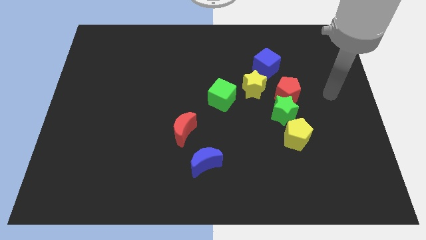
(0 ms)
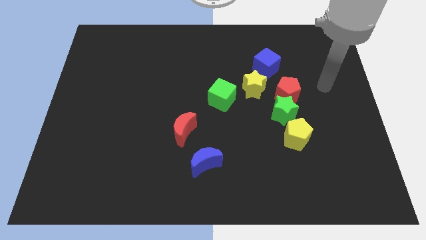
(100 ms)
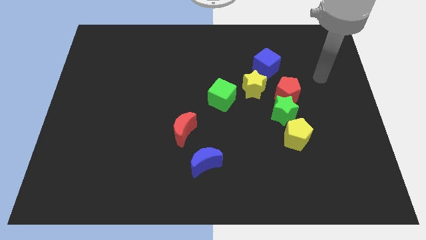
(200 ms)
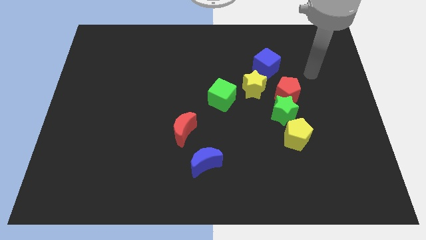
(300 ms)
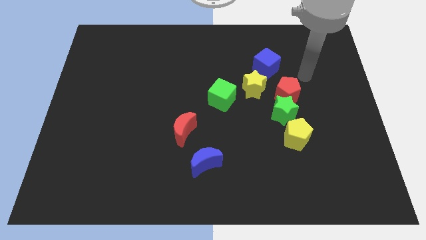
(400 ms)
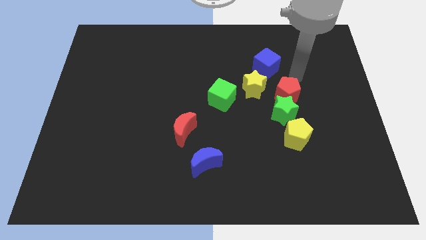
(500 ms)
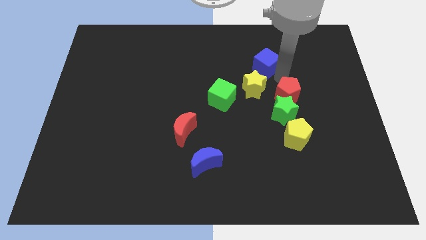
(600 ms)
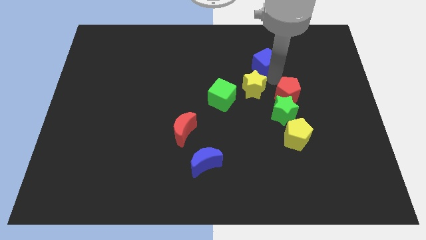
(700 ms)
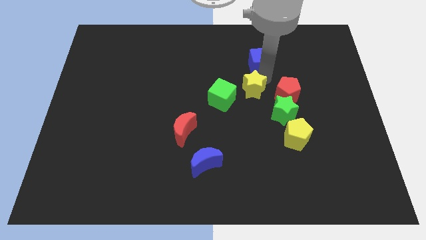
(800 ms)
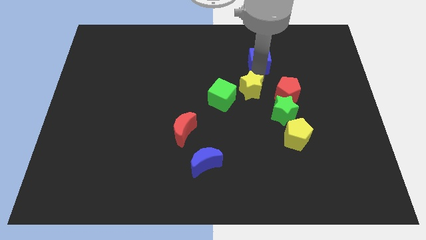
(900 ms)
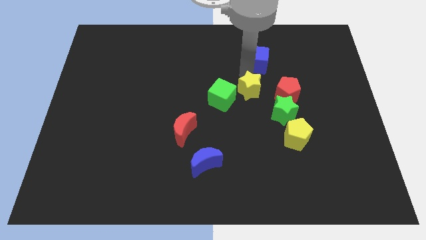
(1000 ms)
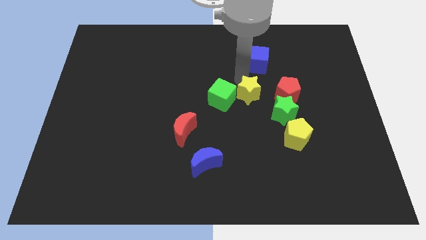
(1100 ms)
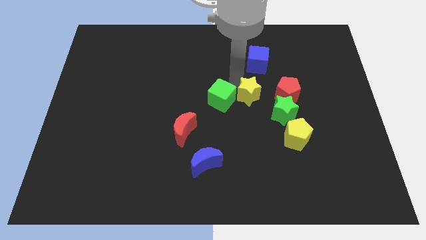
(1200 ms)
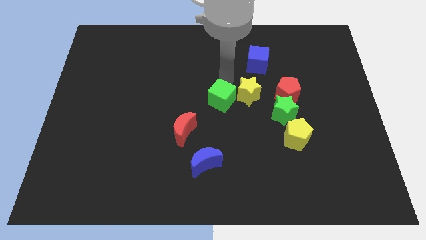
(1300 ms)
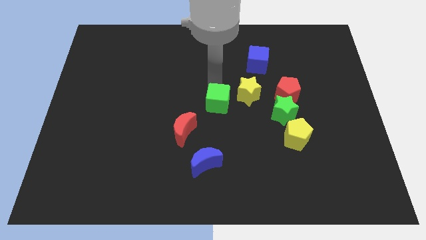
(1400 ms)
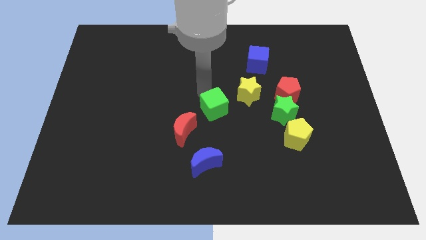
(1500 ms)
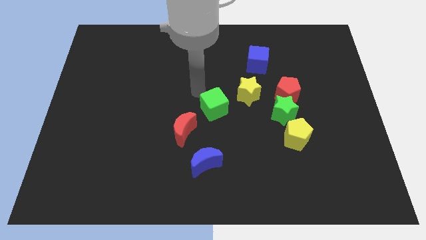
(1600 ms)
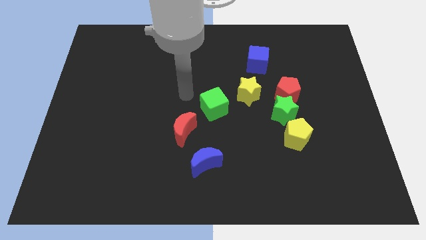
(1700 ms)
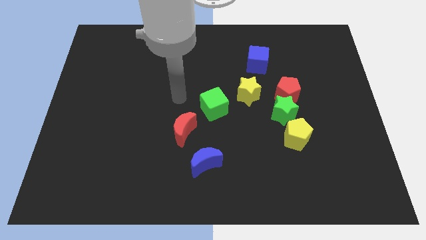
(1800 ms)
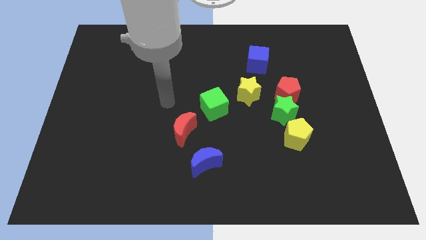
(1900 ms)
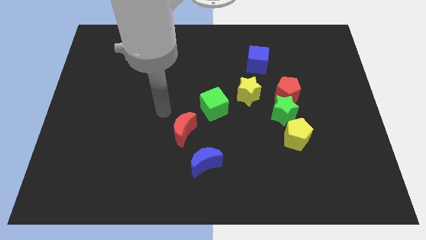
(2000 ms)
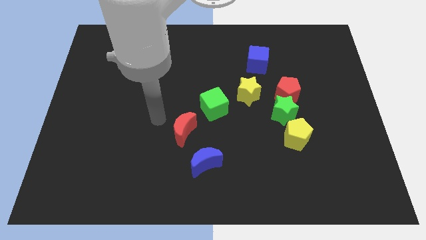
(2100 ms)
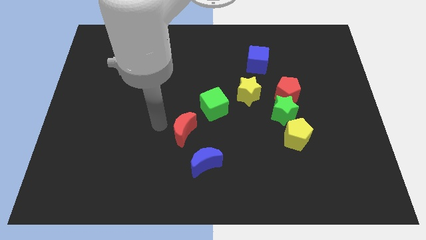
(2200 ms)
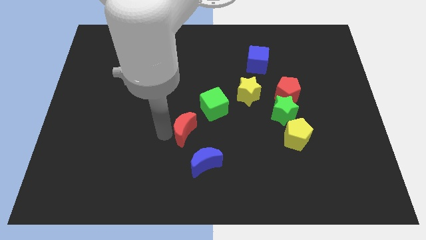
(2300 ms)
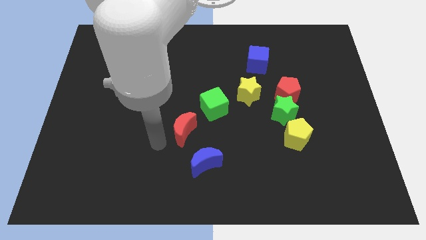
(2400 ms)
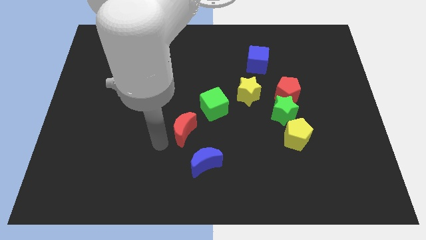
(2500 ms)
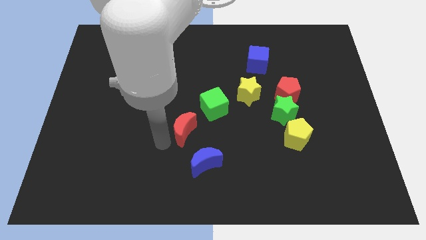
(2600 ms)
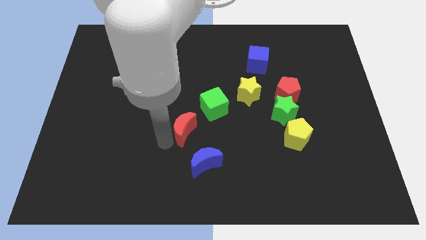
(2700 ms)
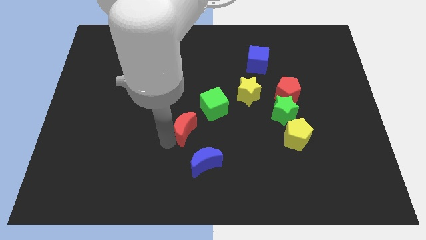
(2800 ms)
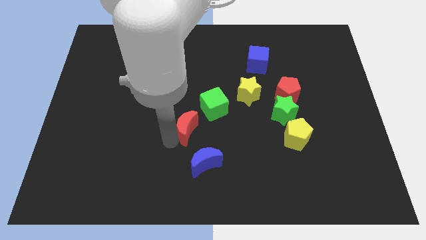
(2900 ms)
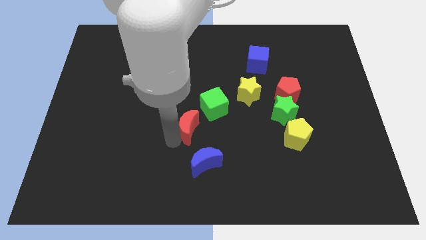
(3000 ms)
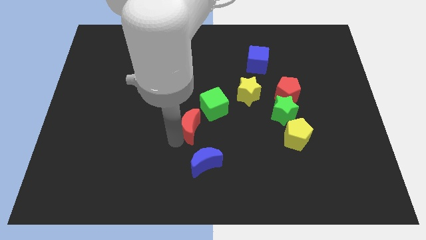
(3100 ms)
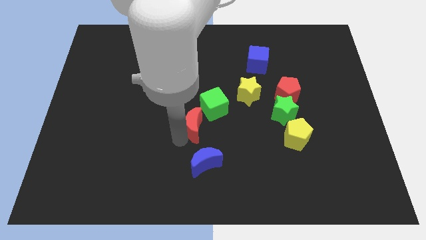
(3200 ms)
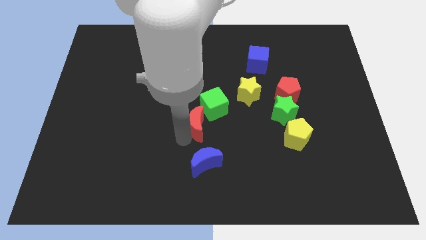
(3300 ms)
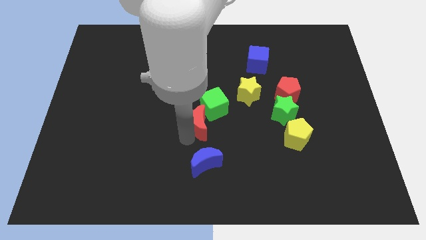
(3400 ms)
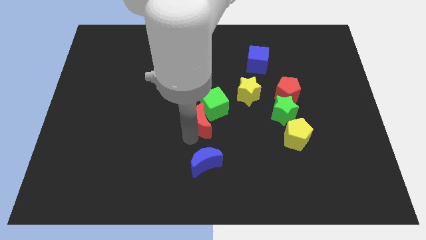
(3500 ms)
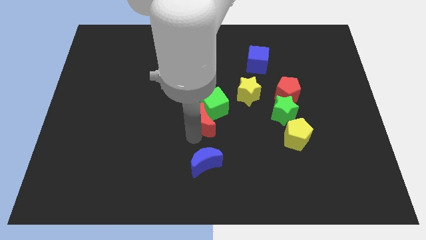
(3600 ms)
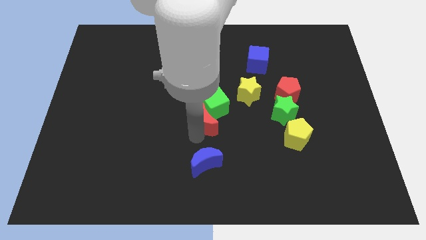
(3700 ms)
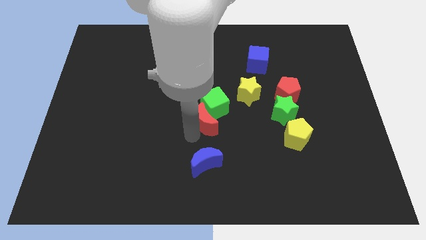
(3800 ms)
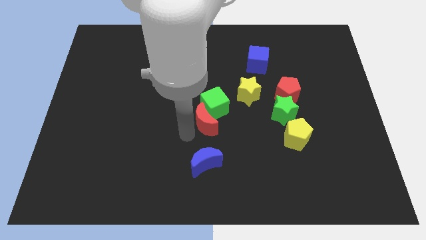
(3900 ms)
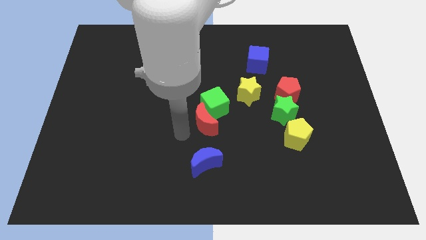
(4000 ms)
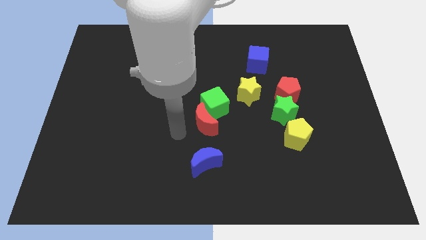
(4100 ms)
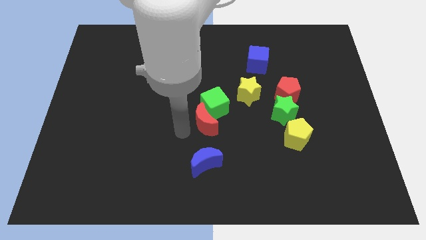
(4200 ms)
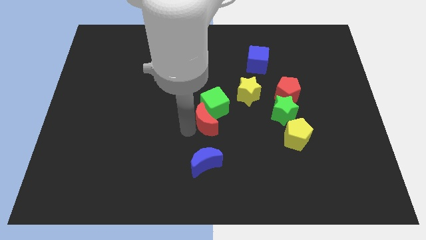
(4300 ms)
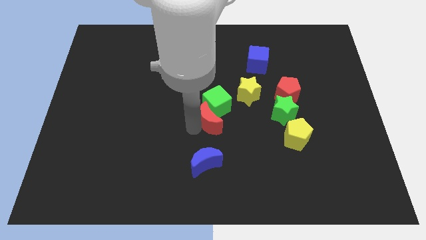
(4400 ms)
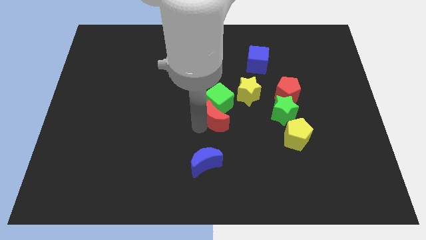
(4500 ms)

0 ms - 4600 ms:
slide the red moon to the right slightly

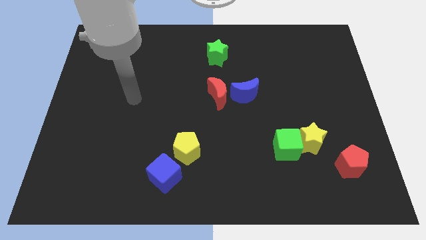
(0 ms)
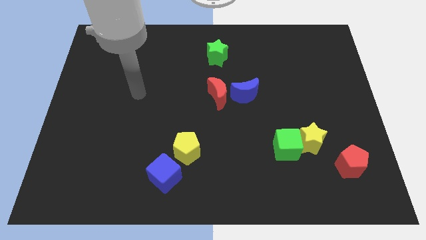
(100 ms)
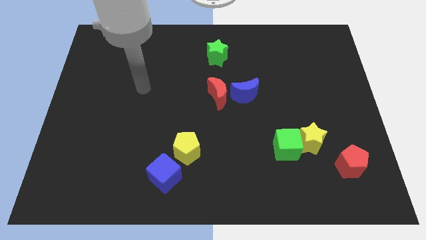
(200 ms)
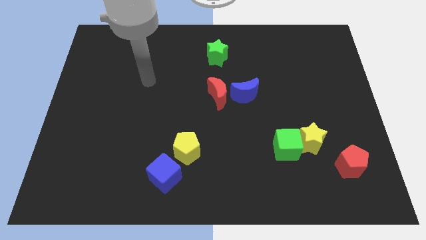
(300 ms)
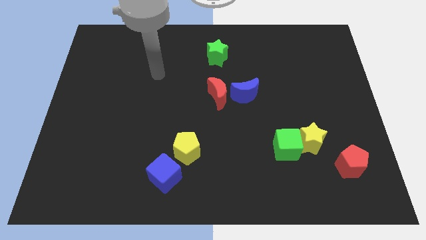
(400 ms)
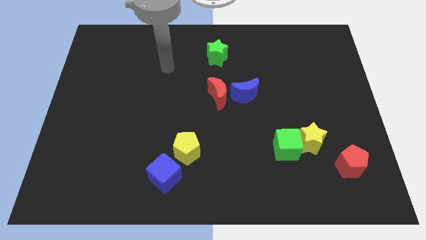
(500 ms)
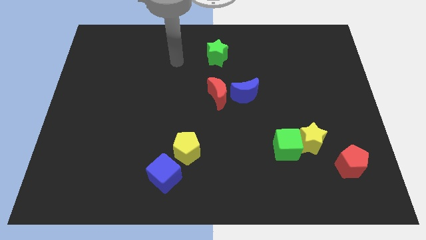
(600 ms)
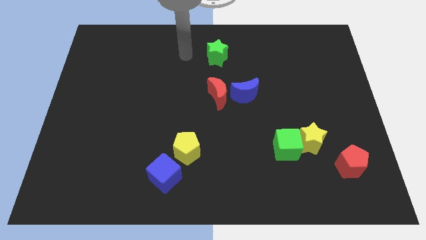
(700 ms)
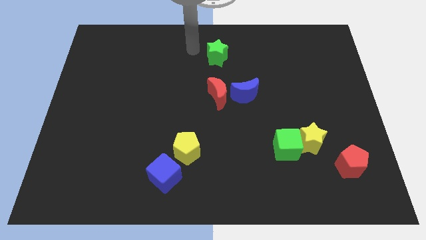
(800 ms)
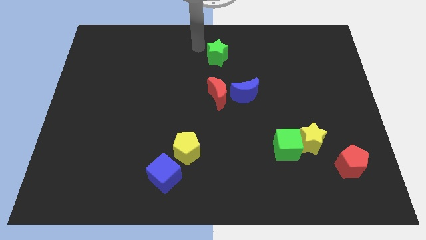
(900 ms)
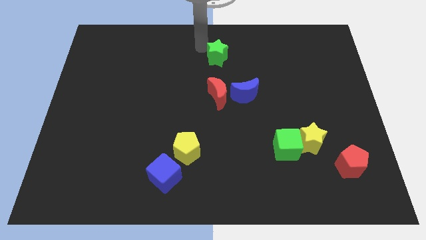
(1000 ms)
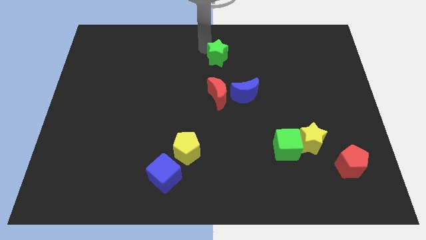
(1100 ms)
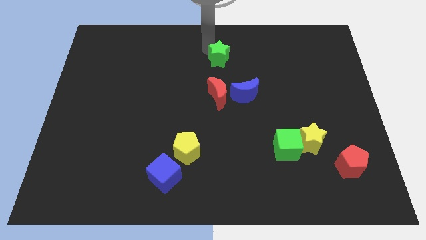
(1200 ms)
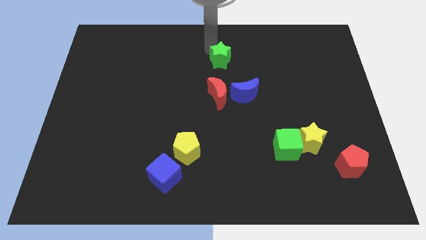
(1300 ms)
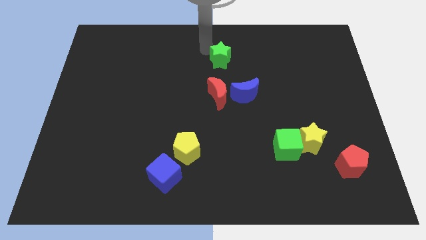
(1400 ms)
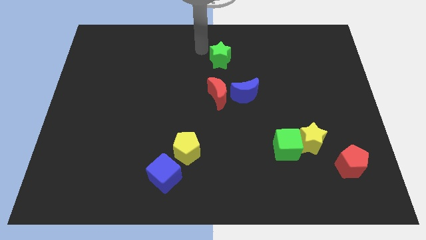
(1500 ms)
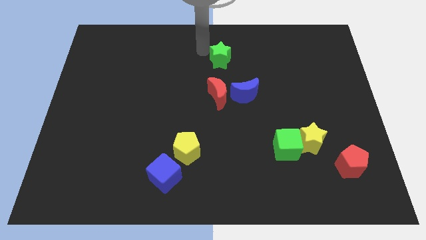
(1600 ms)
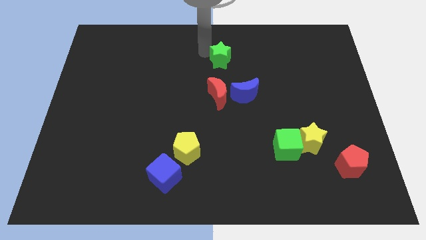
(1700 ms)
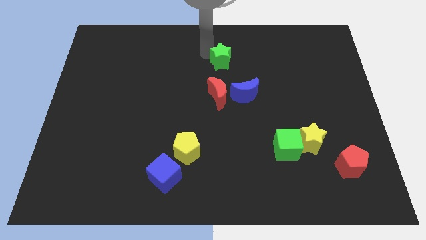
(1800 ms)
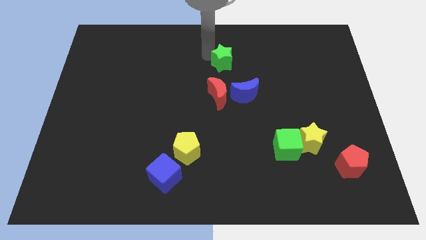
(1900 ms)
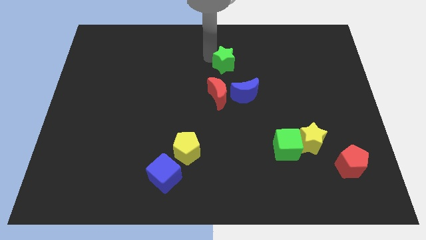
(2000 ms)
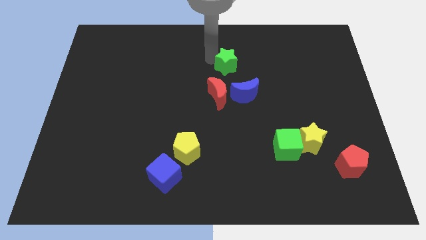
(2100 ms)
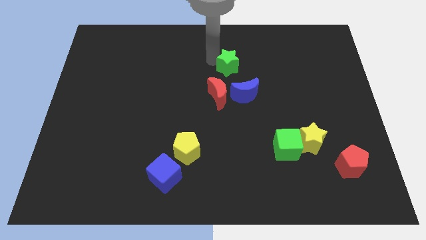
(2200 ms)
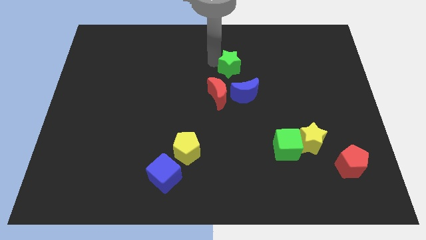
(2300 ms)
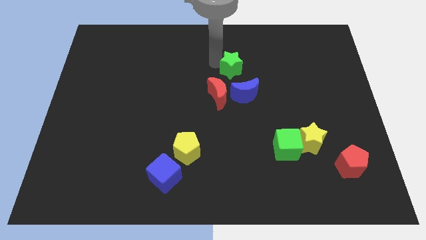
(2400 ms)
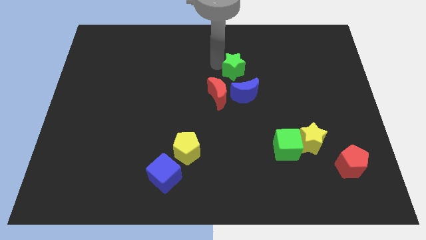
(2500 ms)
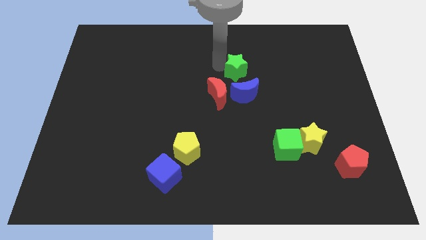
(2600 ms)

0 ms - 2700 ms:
move the green star down and then right slightly

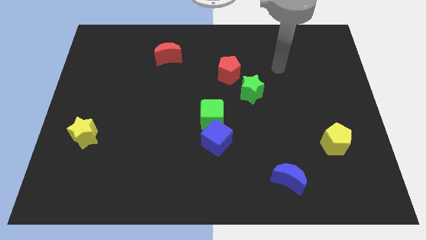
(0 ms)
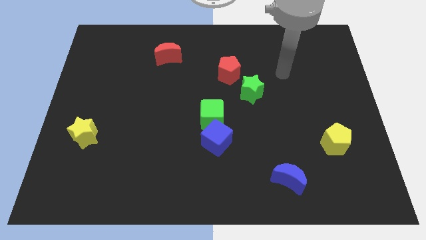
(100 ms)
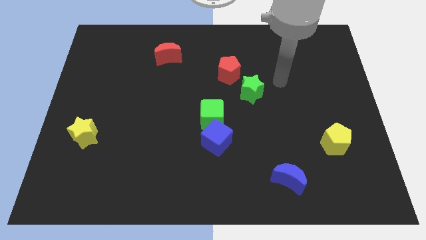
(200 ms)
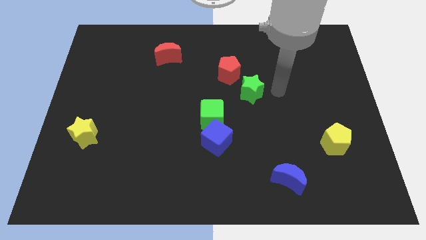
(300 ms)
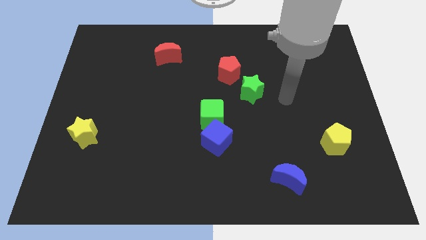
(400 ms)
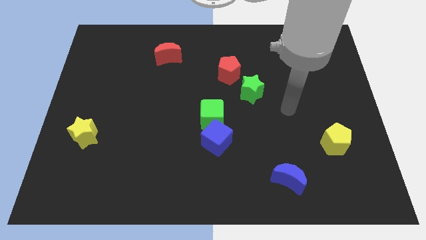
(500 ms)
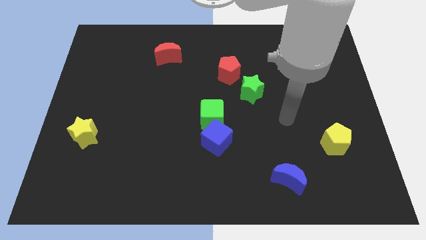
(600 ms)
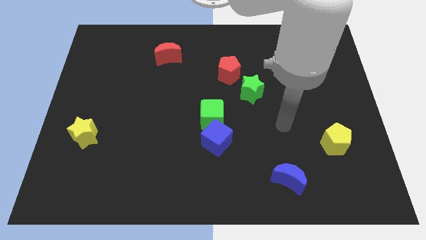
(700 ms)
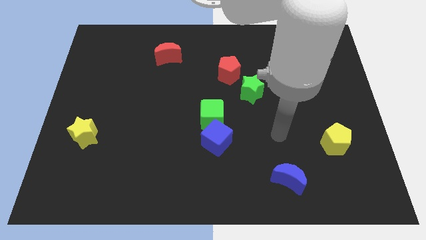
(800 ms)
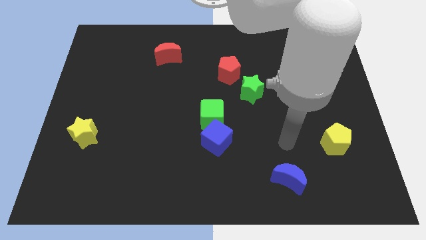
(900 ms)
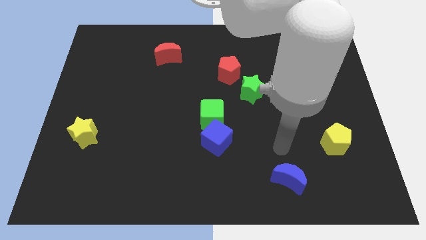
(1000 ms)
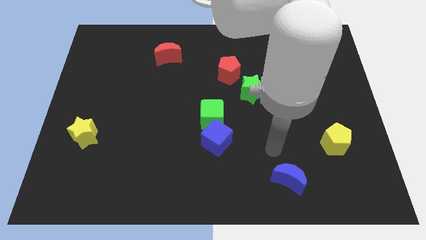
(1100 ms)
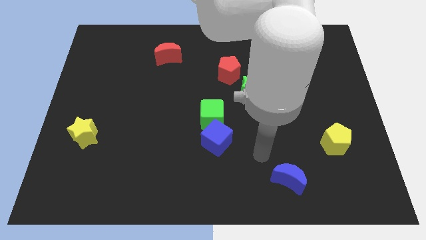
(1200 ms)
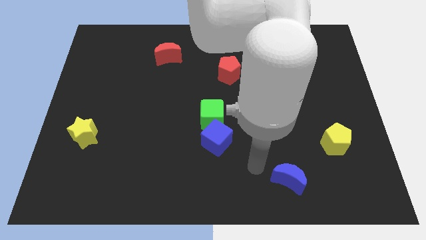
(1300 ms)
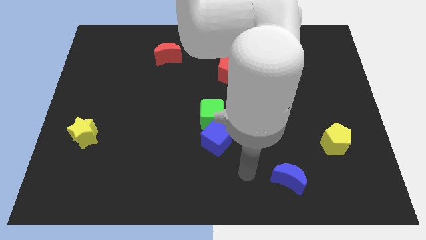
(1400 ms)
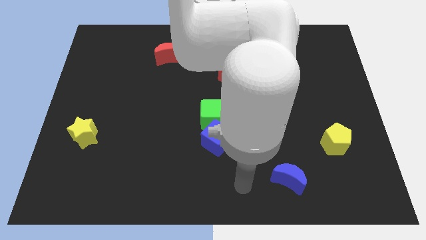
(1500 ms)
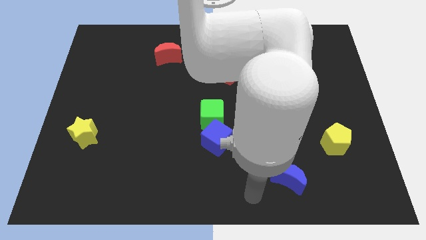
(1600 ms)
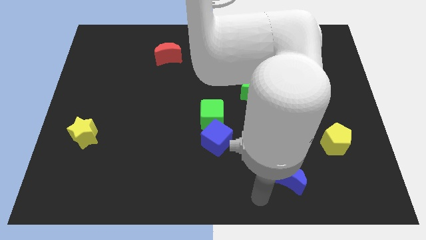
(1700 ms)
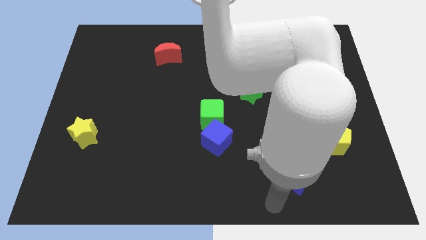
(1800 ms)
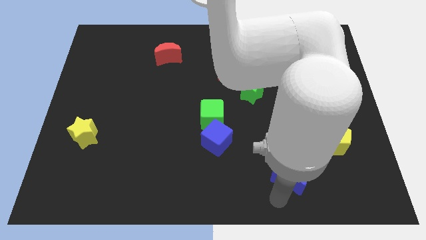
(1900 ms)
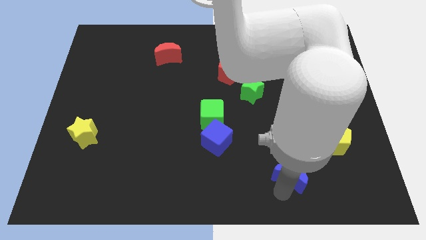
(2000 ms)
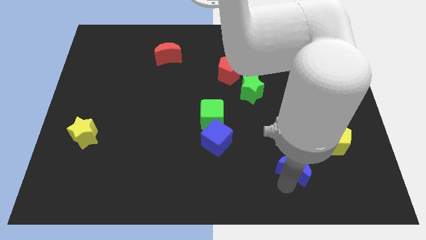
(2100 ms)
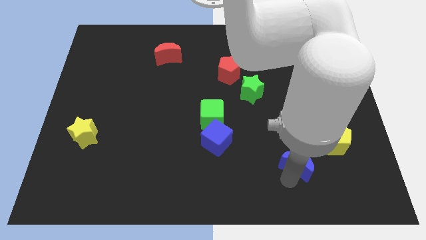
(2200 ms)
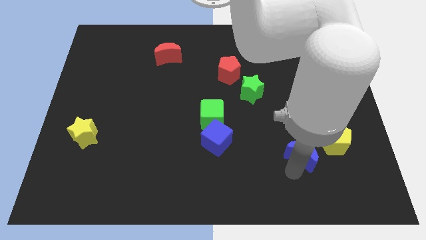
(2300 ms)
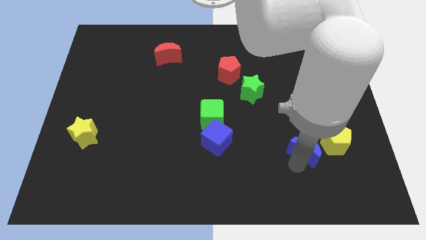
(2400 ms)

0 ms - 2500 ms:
push the blue moon up and right slightly
